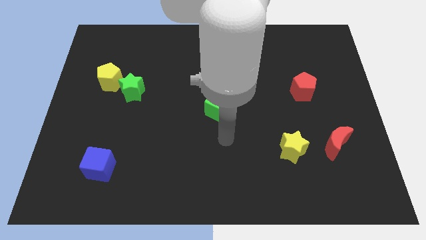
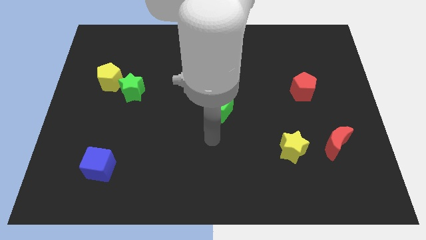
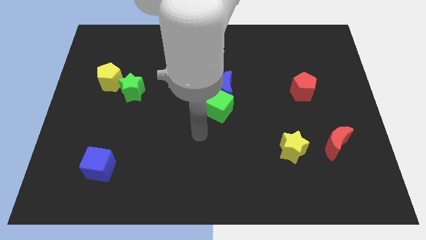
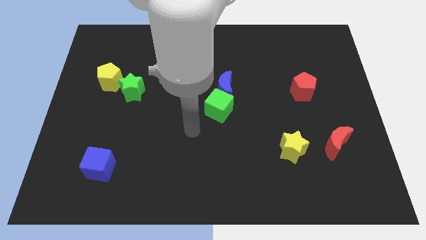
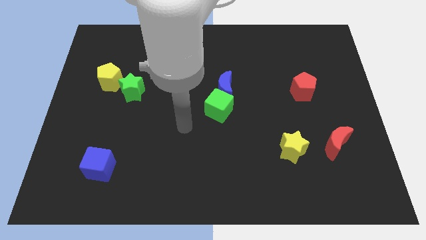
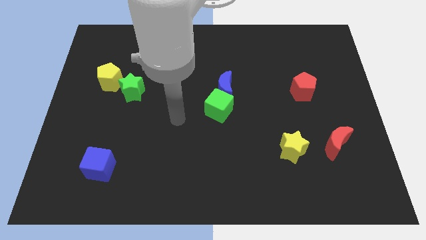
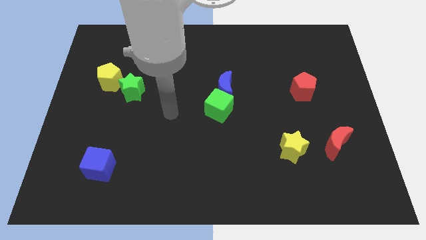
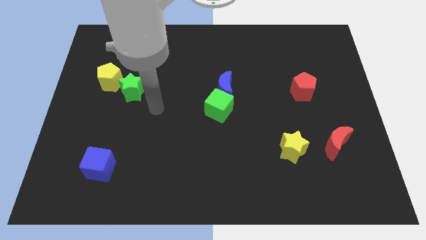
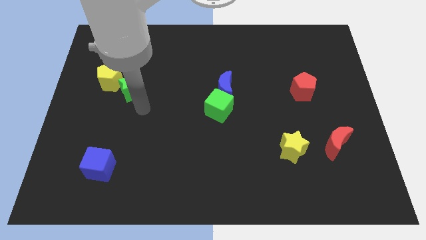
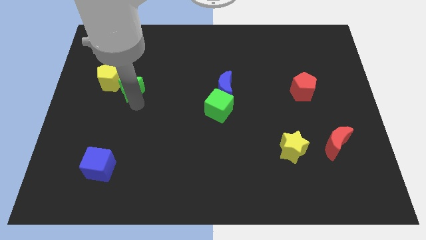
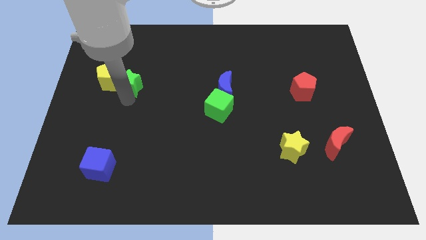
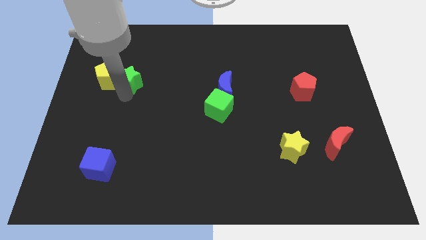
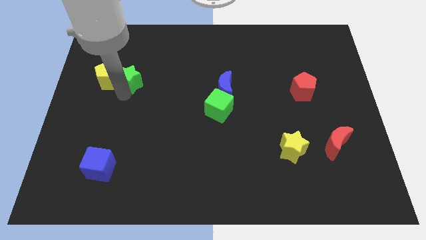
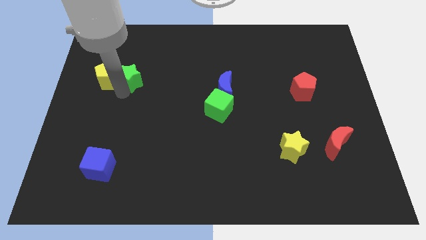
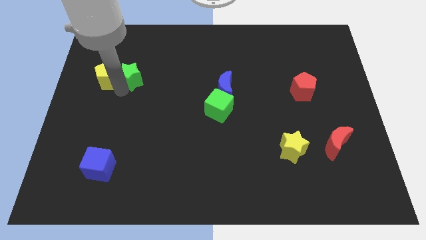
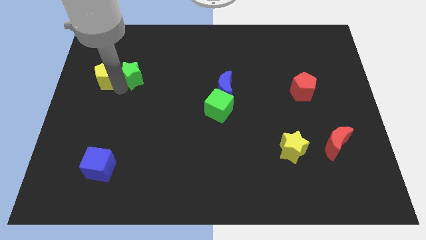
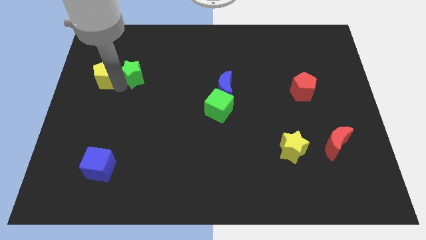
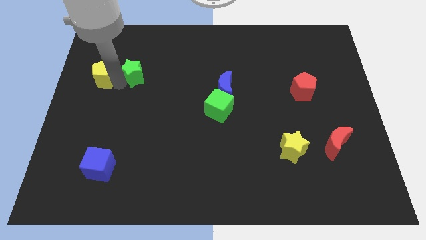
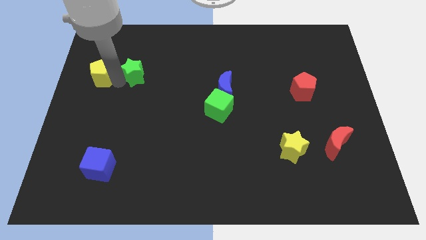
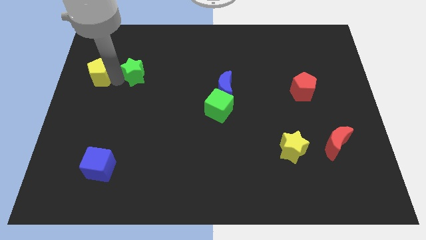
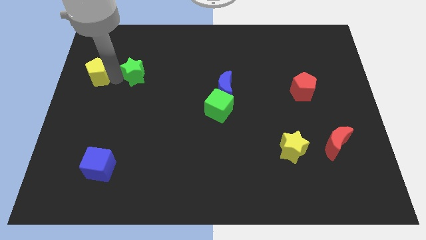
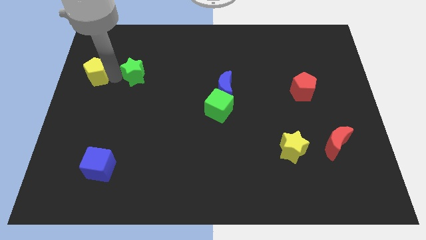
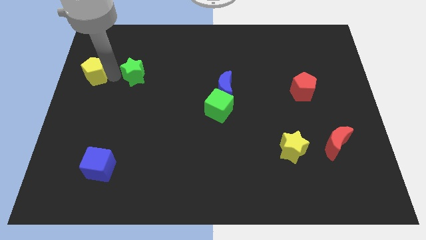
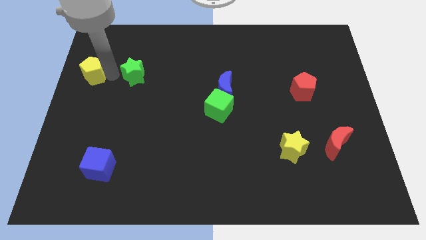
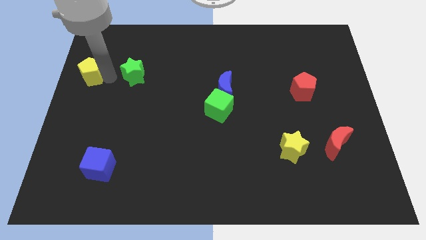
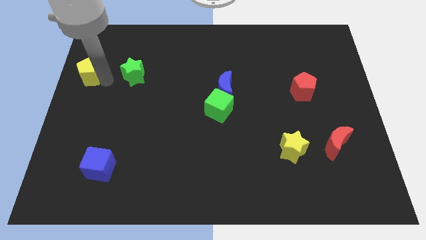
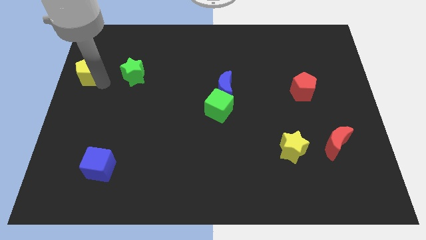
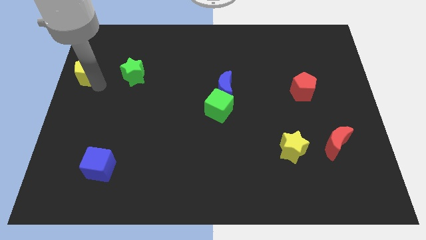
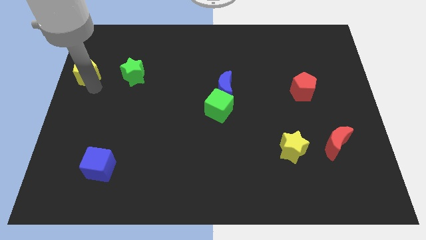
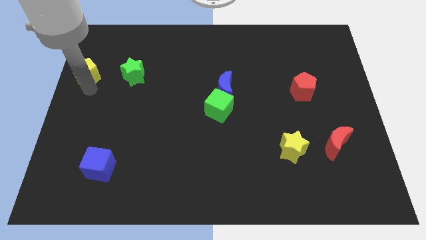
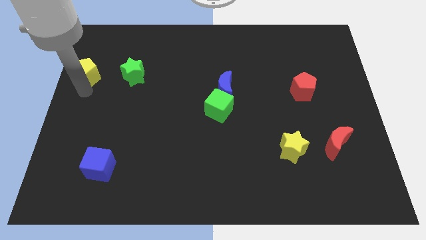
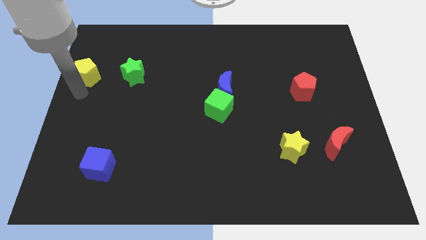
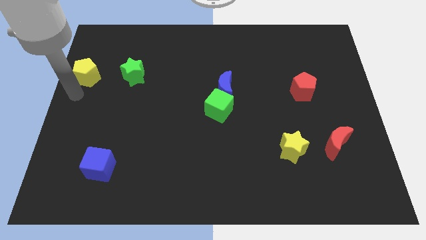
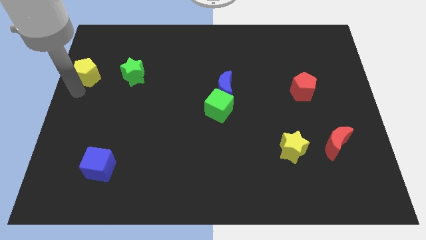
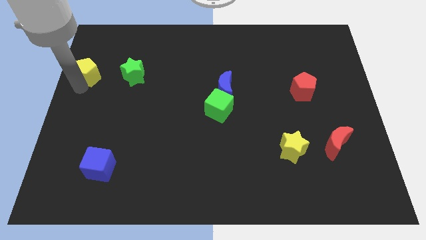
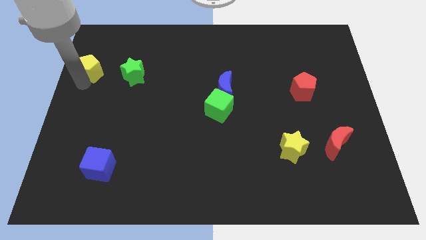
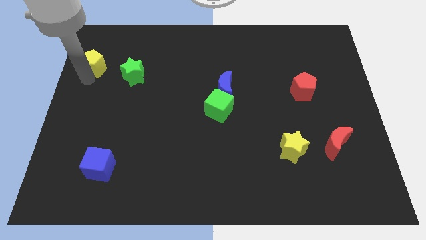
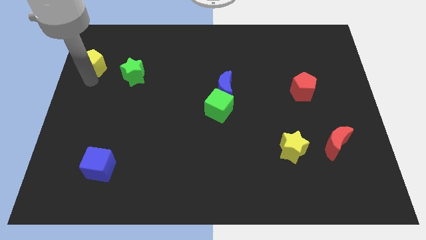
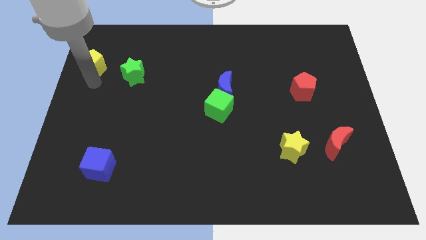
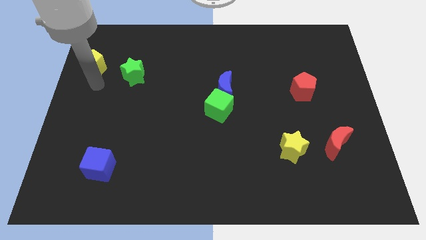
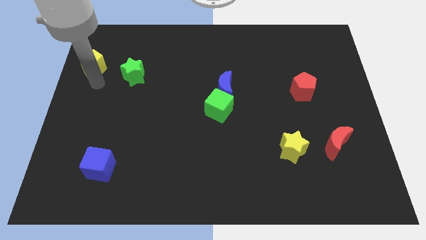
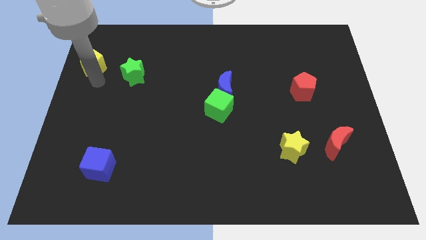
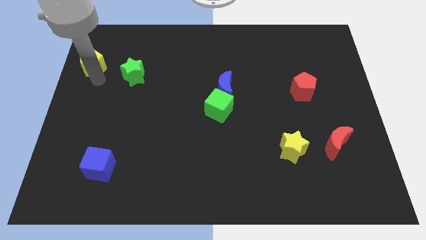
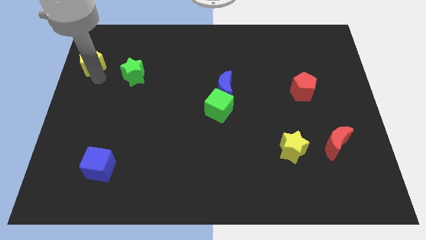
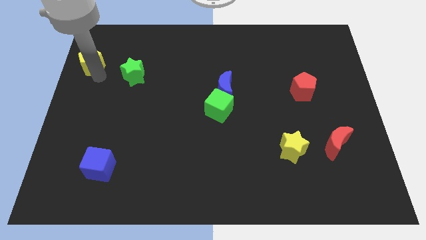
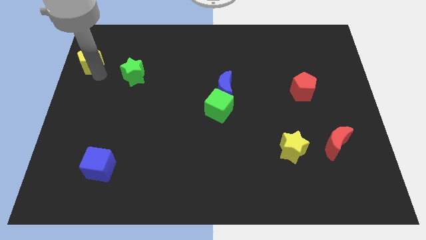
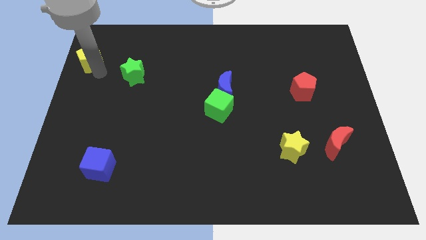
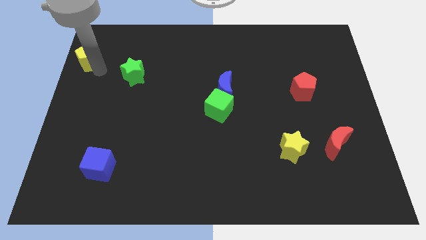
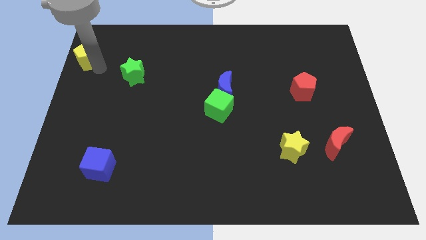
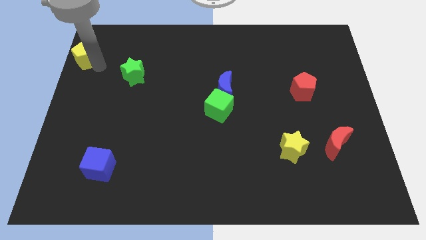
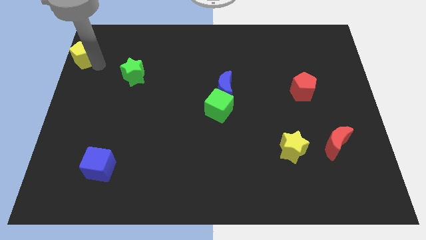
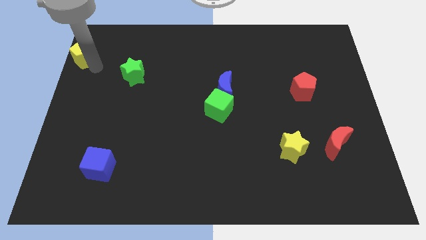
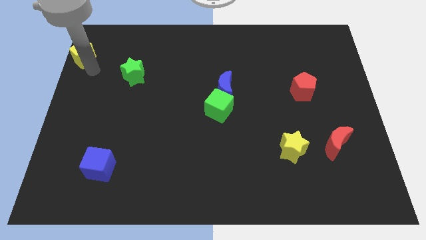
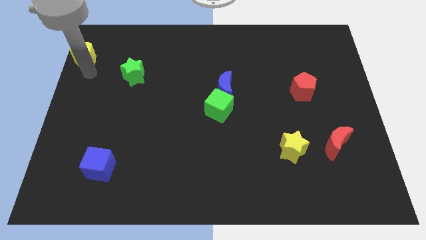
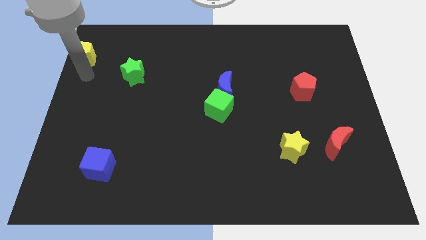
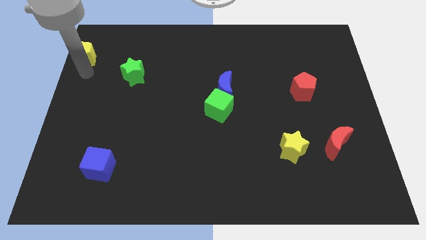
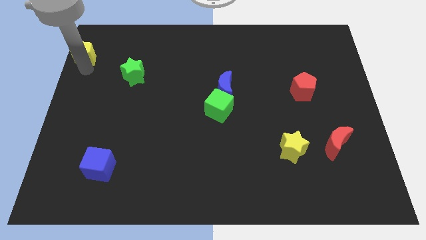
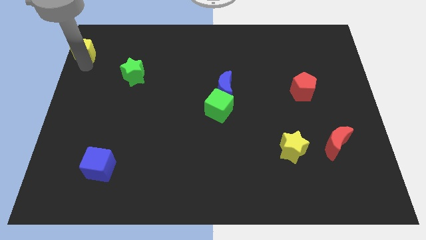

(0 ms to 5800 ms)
slide the yellow pentagon to the top left of the board
